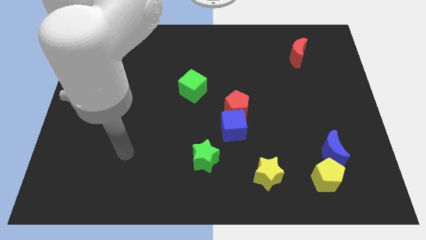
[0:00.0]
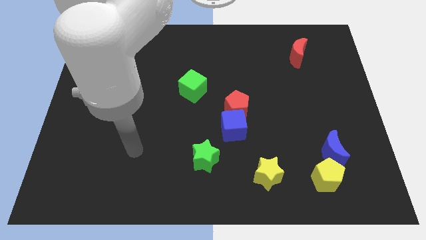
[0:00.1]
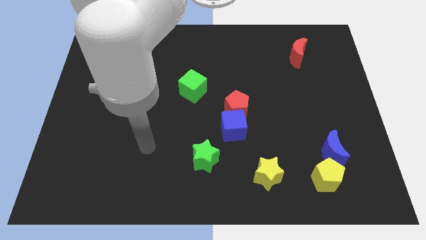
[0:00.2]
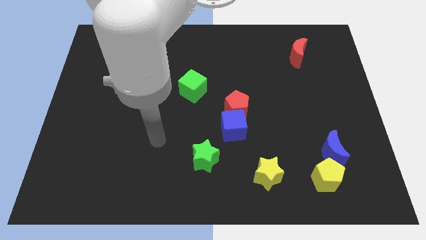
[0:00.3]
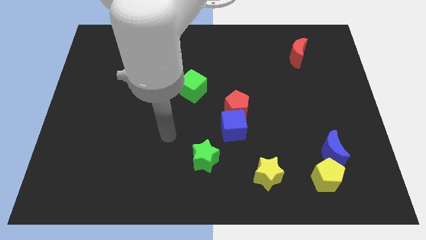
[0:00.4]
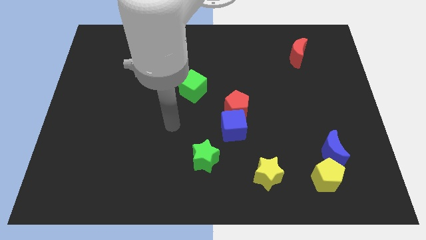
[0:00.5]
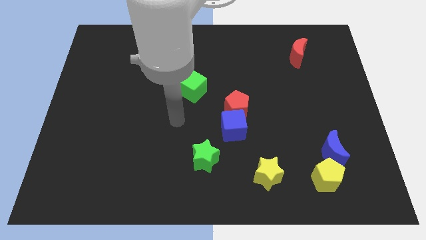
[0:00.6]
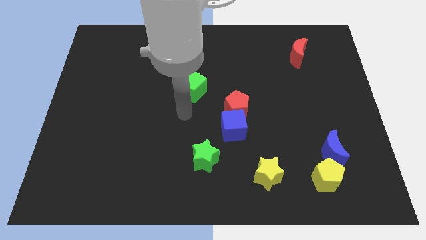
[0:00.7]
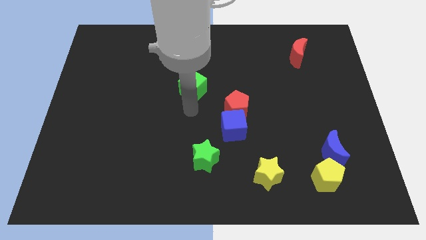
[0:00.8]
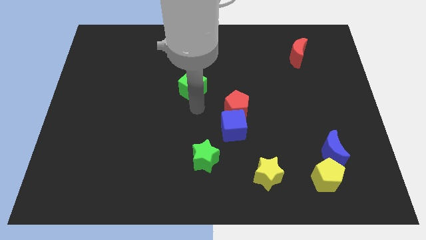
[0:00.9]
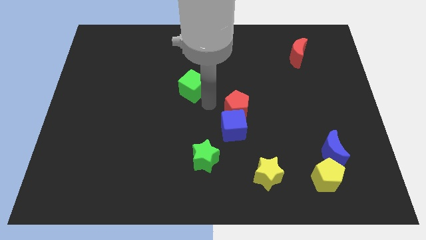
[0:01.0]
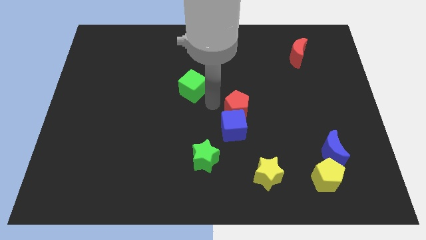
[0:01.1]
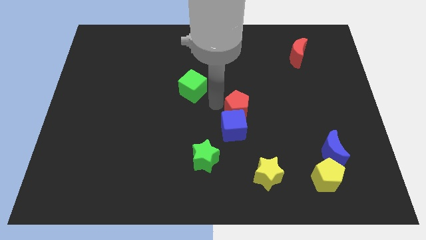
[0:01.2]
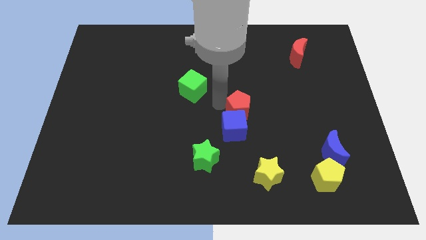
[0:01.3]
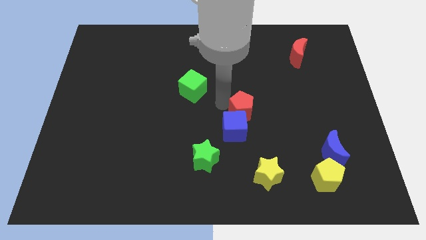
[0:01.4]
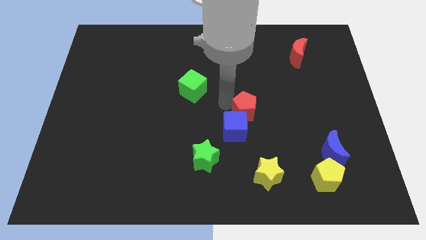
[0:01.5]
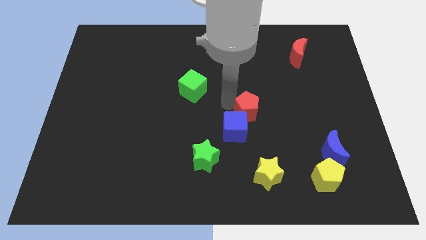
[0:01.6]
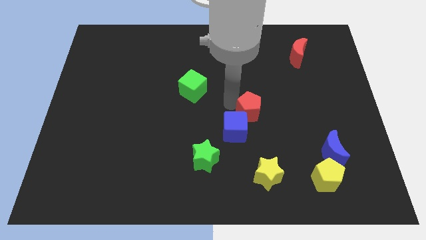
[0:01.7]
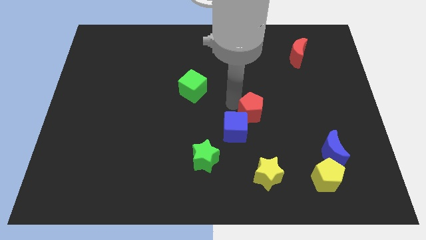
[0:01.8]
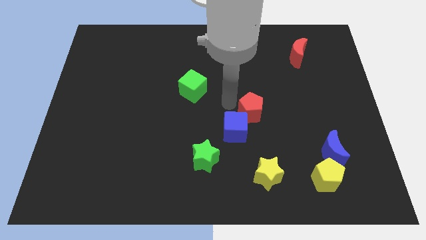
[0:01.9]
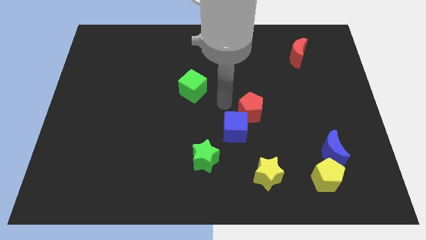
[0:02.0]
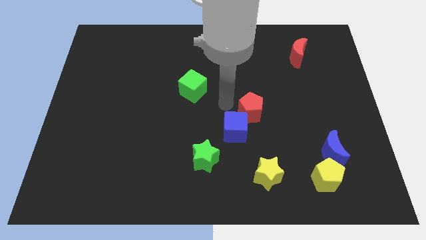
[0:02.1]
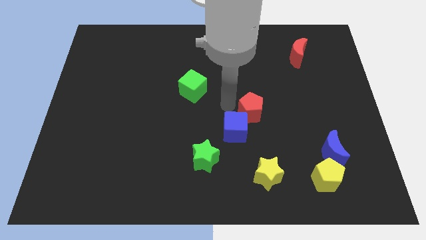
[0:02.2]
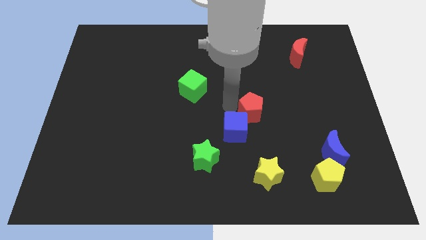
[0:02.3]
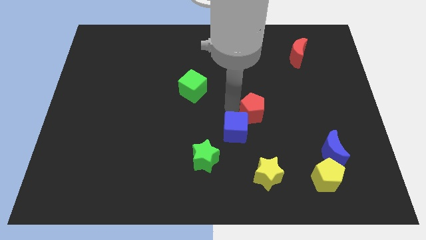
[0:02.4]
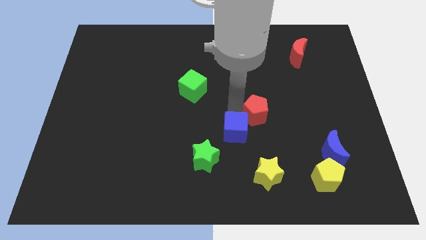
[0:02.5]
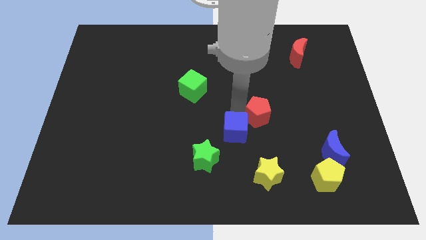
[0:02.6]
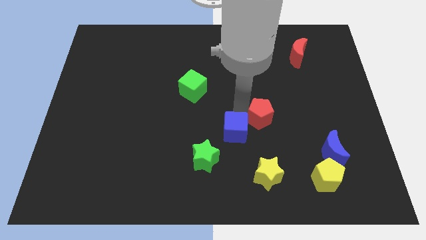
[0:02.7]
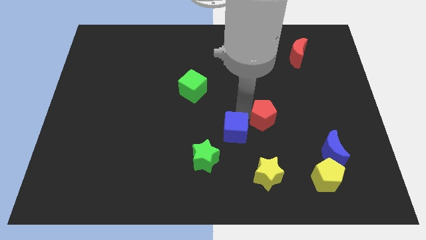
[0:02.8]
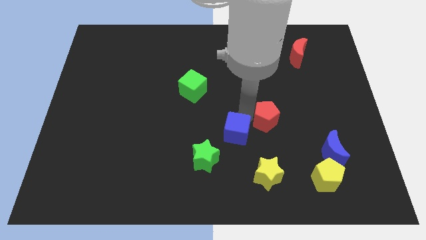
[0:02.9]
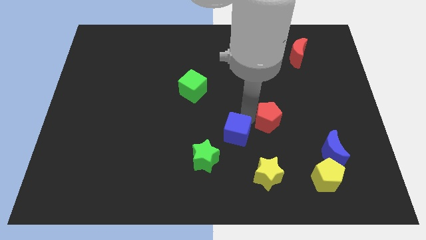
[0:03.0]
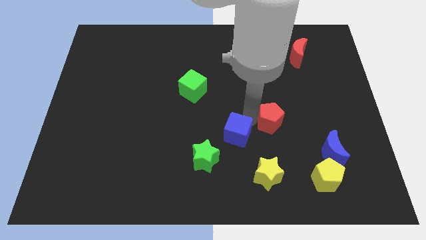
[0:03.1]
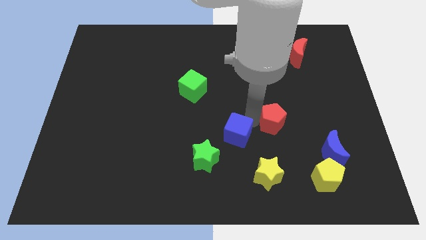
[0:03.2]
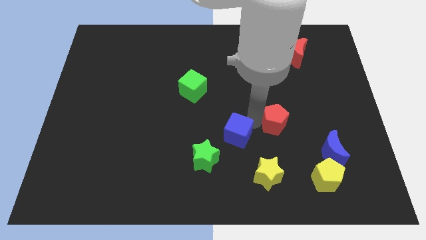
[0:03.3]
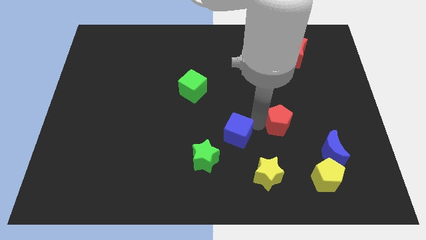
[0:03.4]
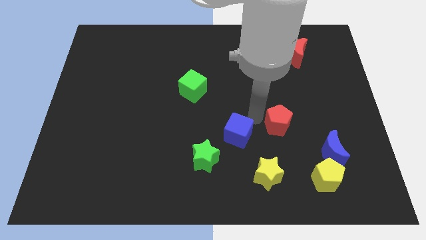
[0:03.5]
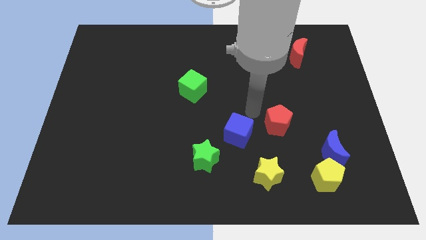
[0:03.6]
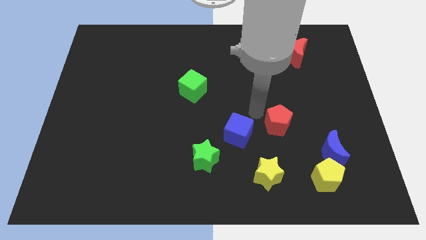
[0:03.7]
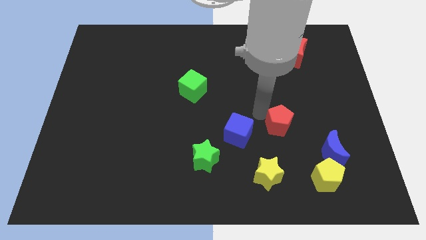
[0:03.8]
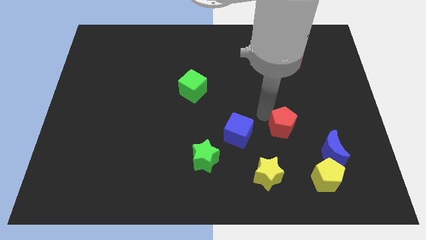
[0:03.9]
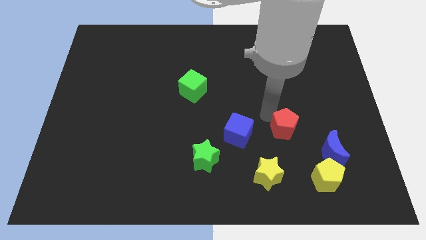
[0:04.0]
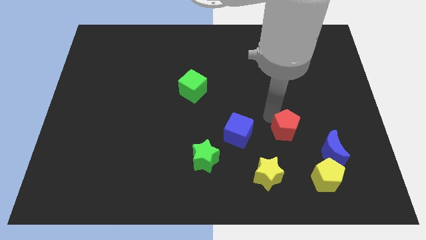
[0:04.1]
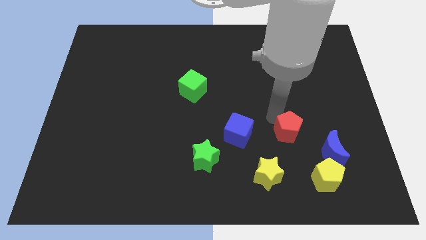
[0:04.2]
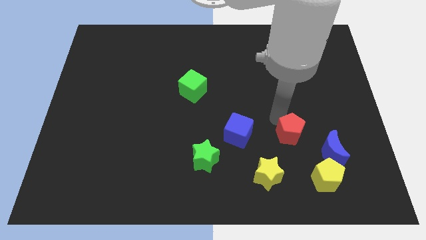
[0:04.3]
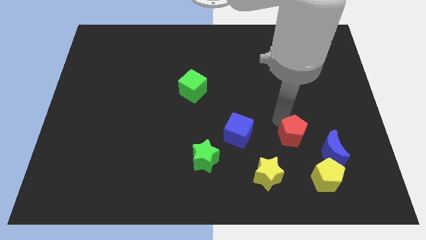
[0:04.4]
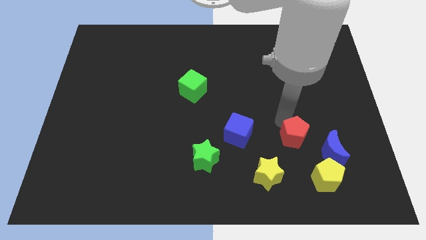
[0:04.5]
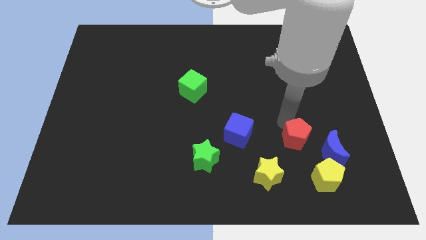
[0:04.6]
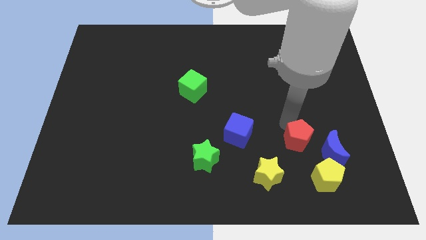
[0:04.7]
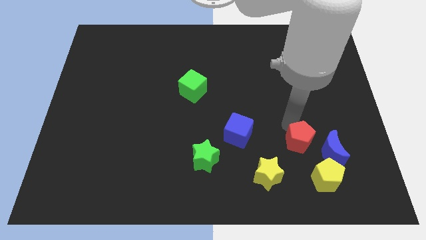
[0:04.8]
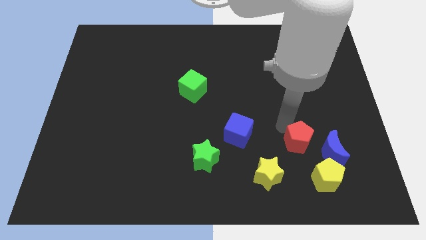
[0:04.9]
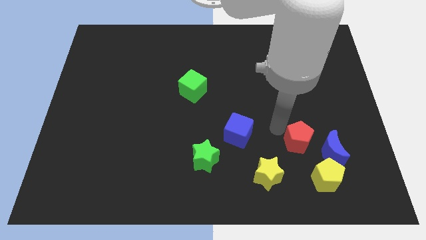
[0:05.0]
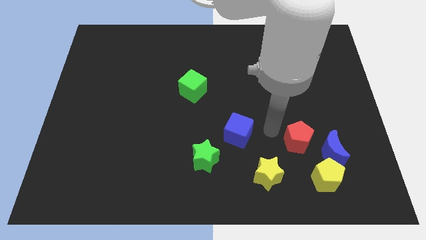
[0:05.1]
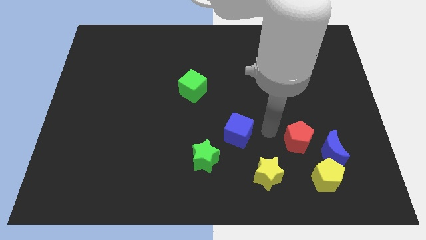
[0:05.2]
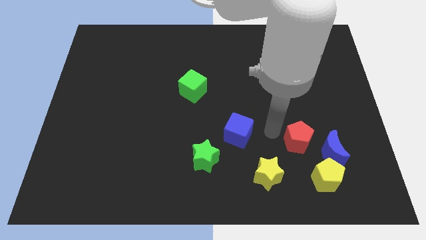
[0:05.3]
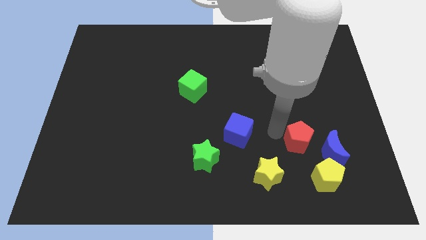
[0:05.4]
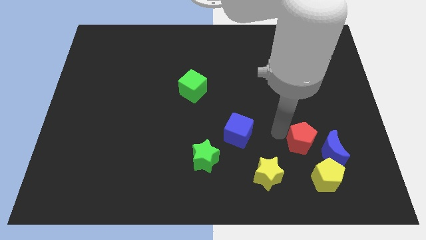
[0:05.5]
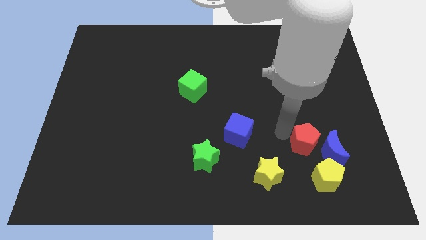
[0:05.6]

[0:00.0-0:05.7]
move the red pentagon to the blue moon

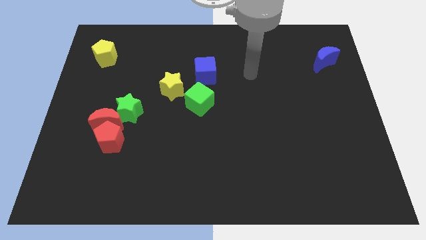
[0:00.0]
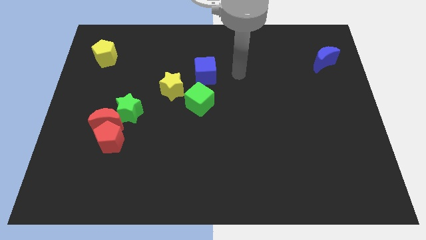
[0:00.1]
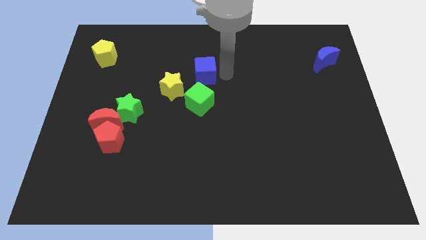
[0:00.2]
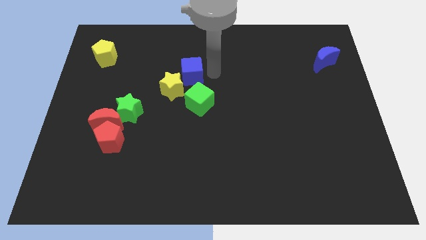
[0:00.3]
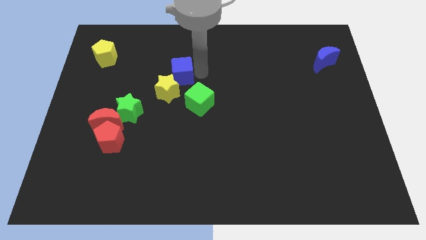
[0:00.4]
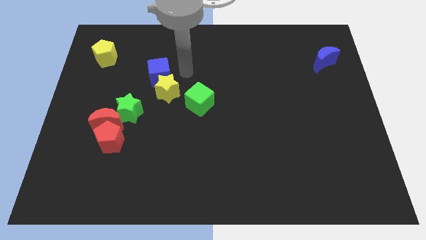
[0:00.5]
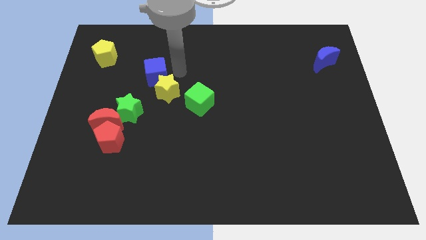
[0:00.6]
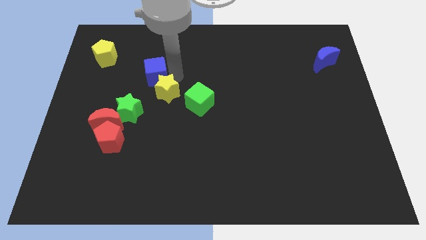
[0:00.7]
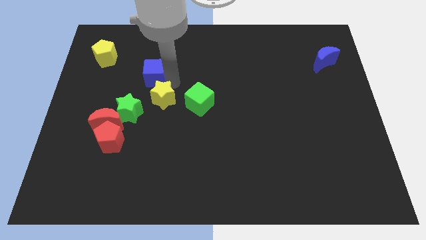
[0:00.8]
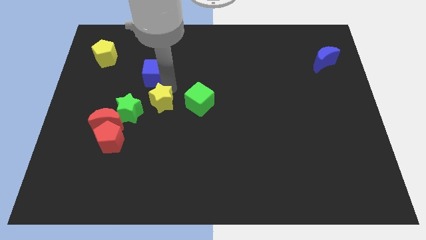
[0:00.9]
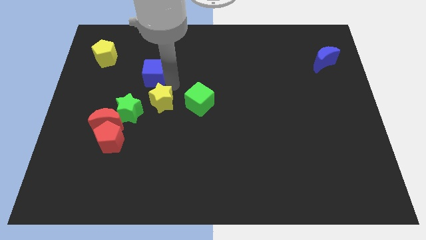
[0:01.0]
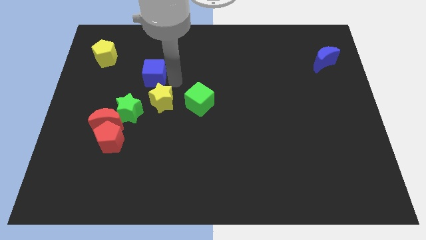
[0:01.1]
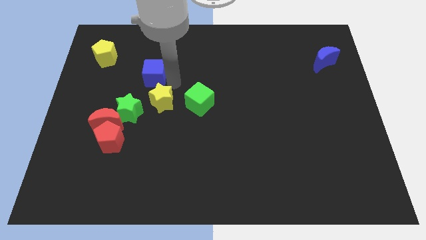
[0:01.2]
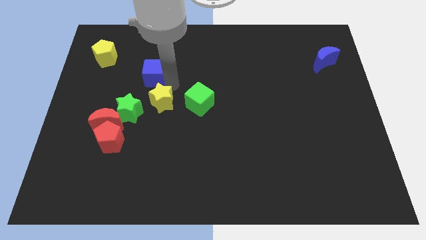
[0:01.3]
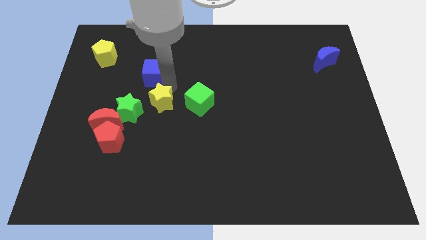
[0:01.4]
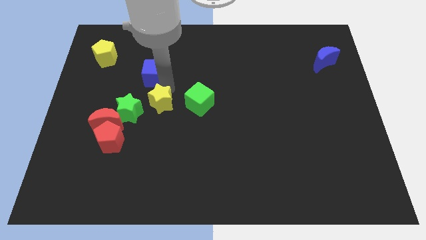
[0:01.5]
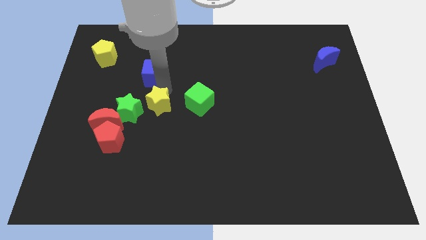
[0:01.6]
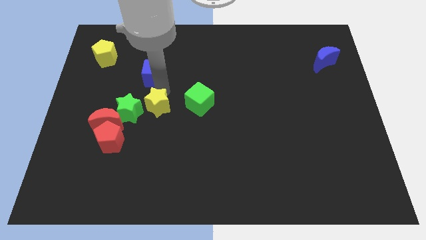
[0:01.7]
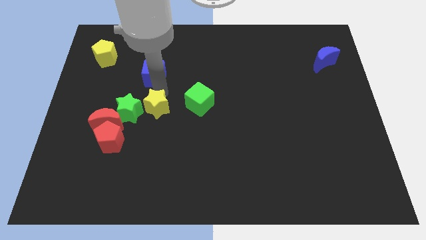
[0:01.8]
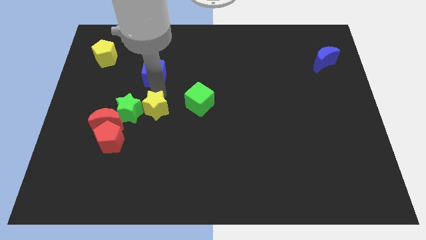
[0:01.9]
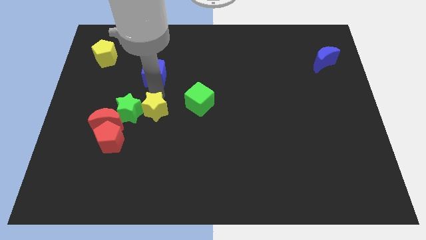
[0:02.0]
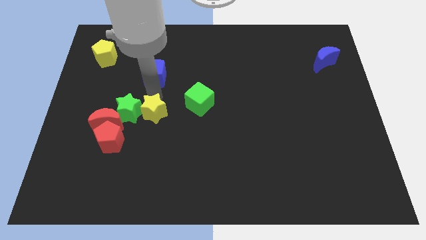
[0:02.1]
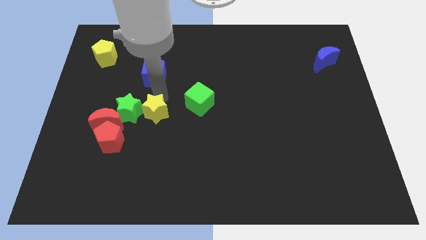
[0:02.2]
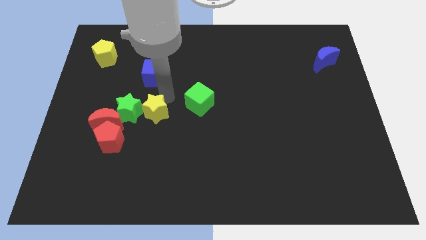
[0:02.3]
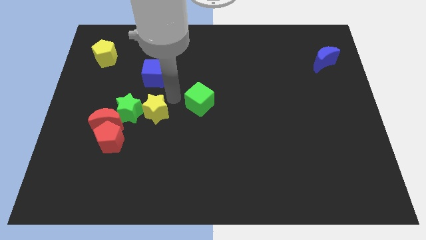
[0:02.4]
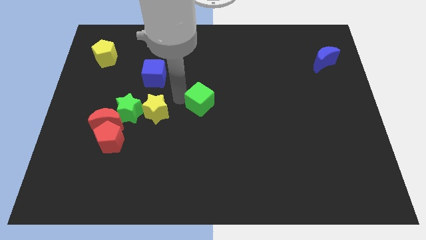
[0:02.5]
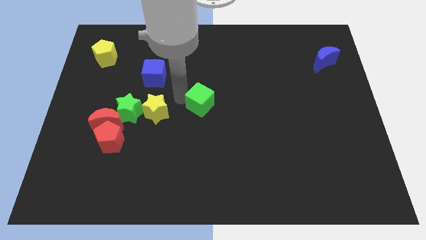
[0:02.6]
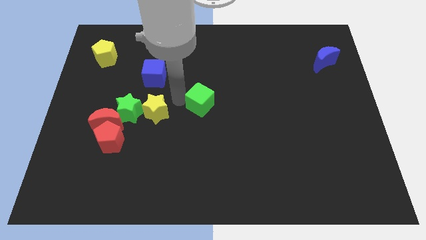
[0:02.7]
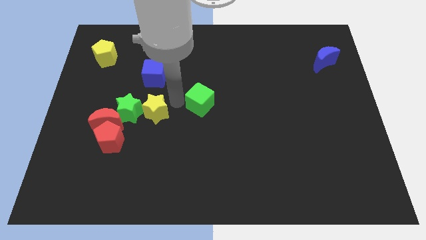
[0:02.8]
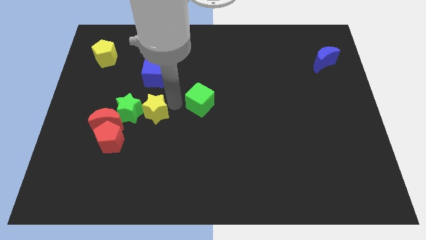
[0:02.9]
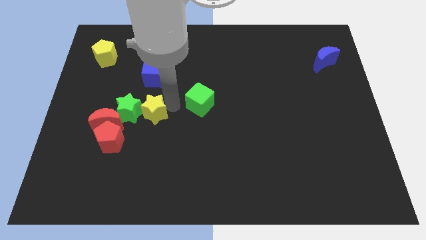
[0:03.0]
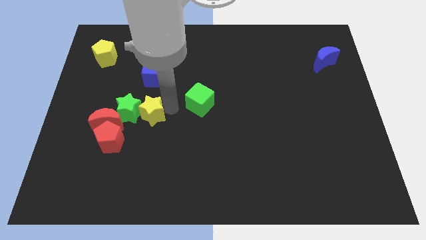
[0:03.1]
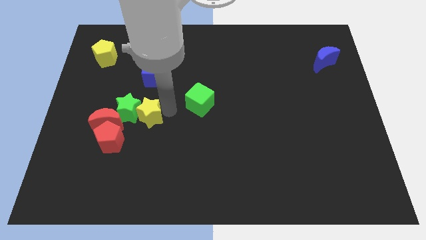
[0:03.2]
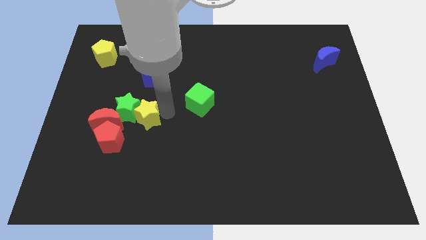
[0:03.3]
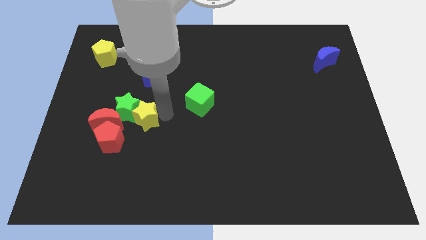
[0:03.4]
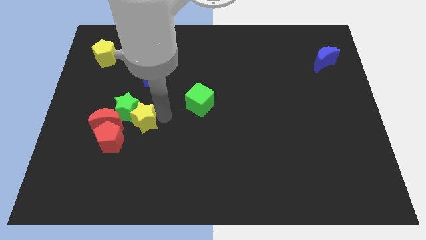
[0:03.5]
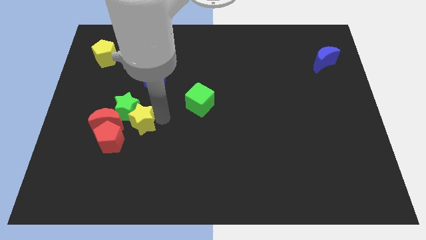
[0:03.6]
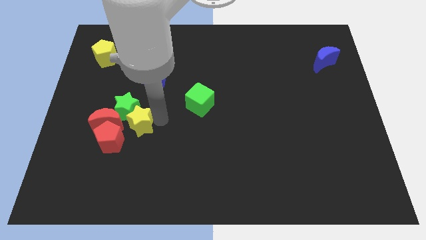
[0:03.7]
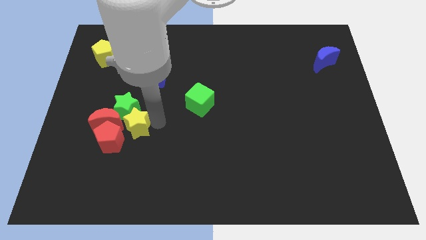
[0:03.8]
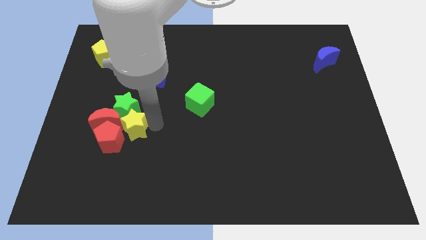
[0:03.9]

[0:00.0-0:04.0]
slide the yellow star towards the red pentagon
